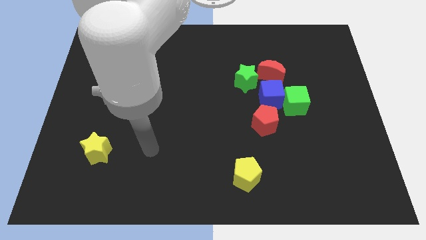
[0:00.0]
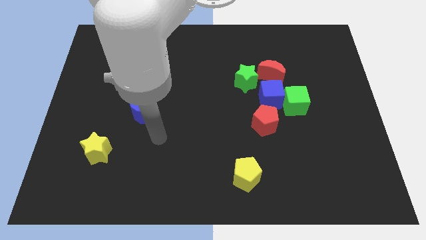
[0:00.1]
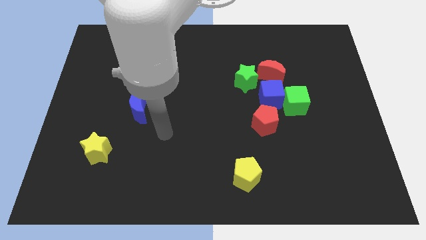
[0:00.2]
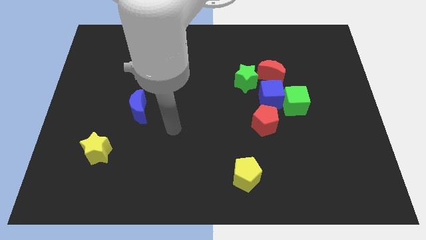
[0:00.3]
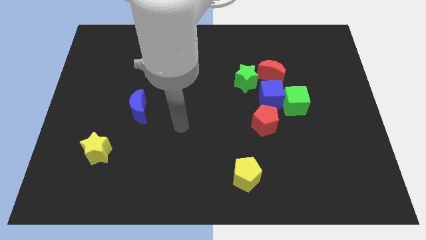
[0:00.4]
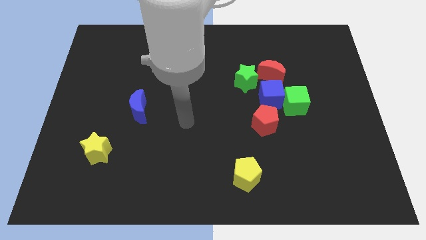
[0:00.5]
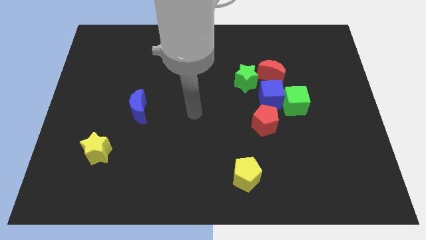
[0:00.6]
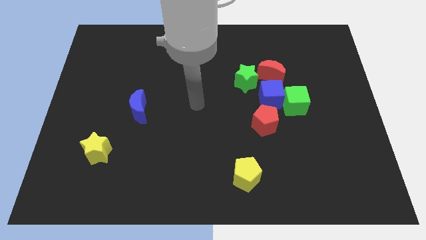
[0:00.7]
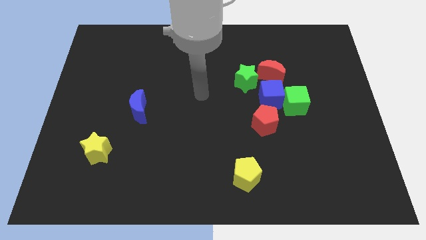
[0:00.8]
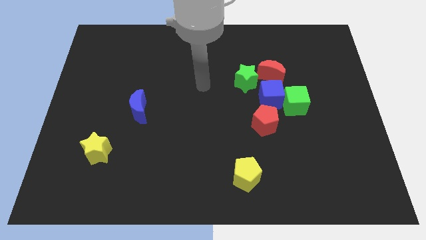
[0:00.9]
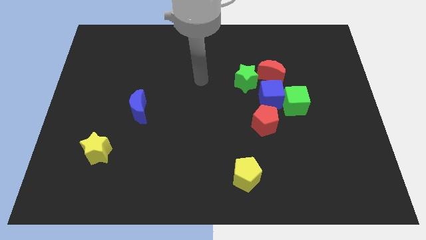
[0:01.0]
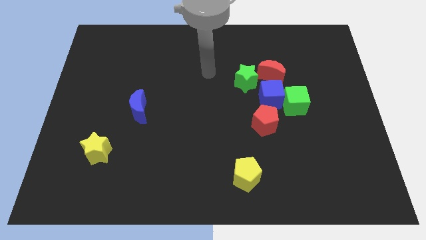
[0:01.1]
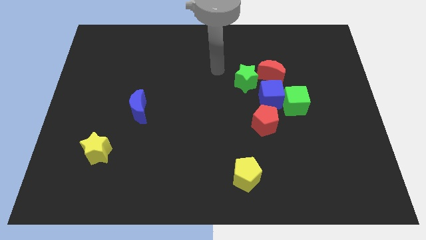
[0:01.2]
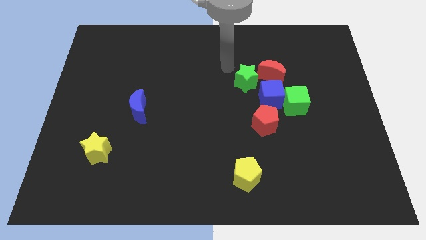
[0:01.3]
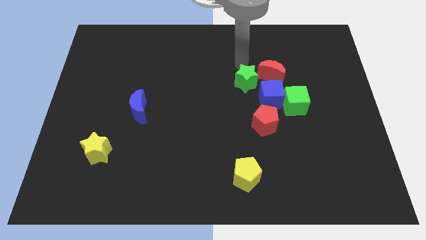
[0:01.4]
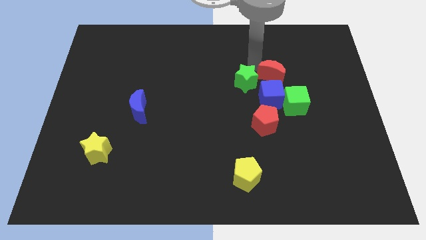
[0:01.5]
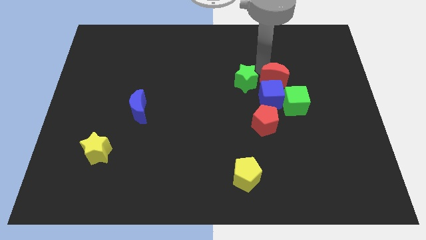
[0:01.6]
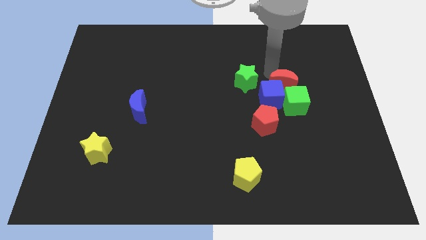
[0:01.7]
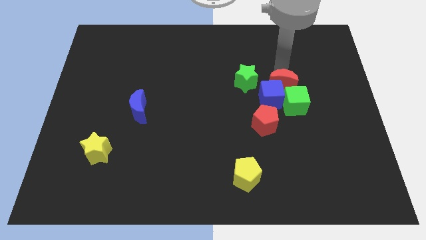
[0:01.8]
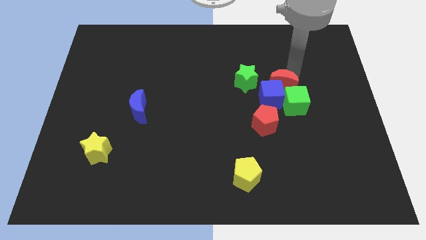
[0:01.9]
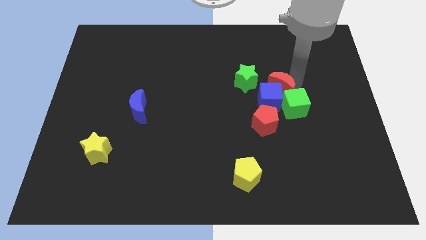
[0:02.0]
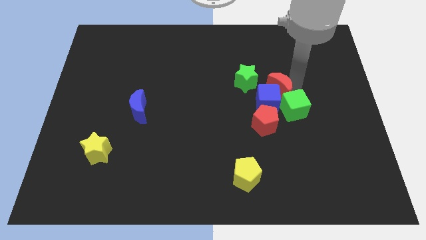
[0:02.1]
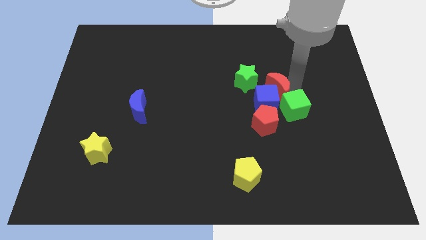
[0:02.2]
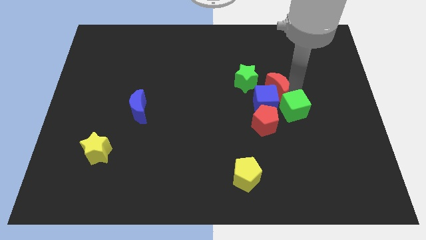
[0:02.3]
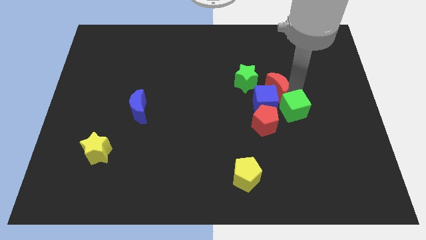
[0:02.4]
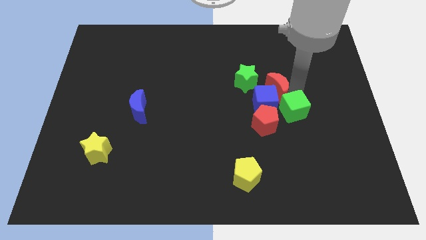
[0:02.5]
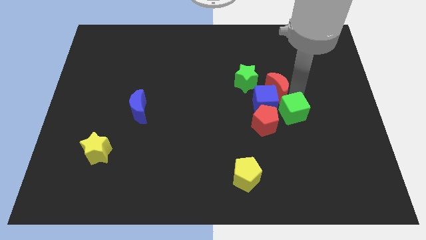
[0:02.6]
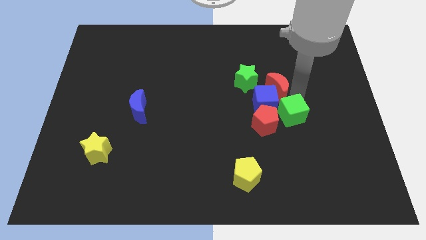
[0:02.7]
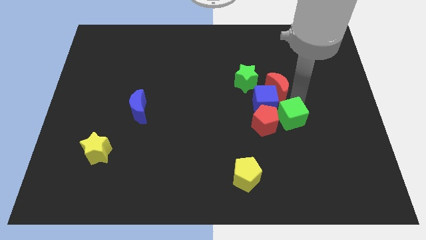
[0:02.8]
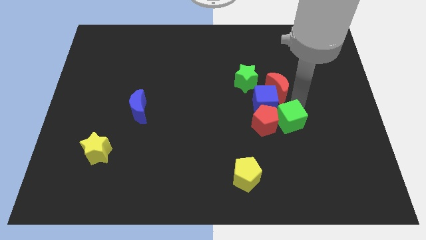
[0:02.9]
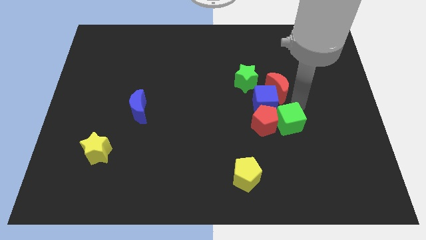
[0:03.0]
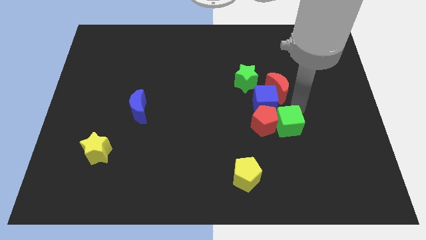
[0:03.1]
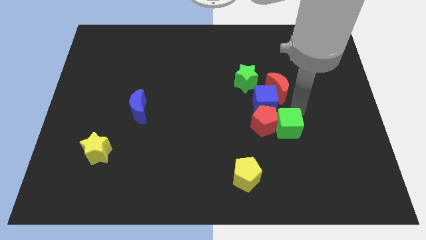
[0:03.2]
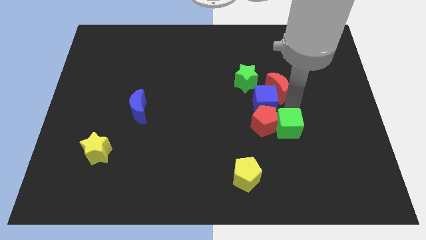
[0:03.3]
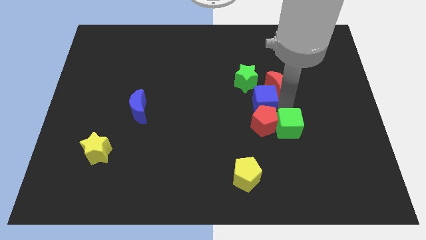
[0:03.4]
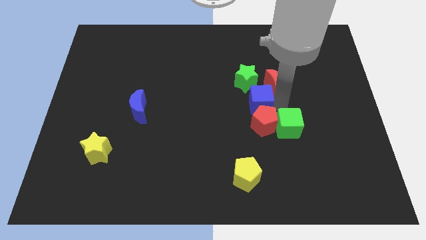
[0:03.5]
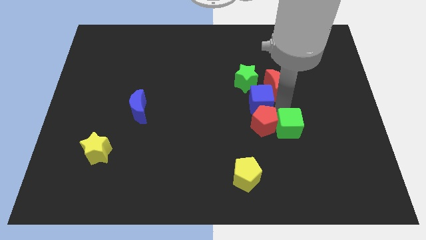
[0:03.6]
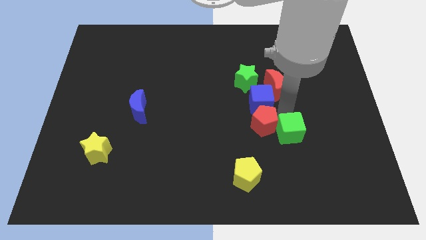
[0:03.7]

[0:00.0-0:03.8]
slightly slide the green cube downwards

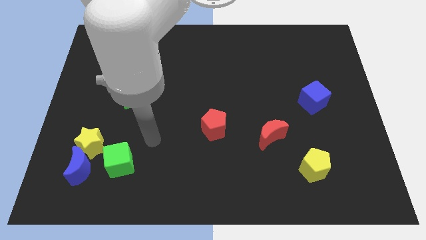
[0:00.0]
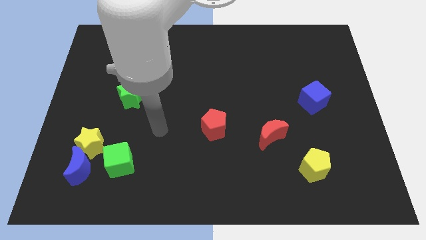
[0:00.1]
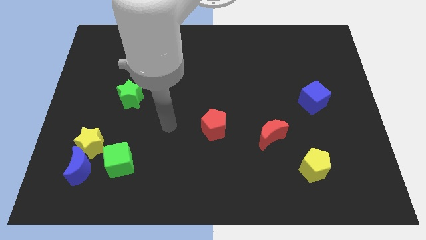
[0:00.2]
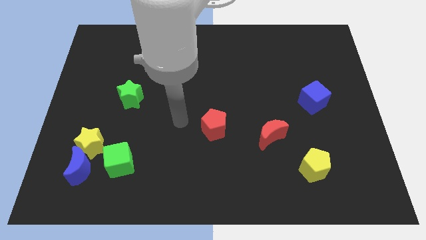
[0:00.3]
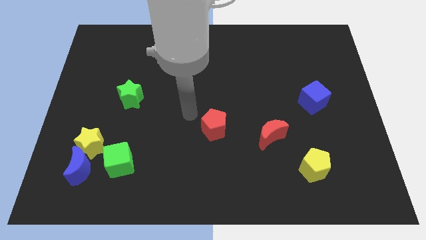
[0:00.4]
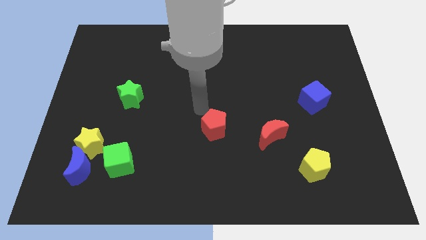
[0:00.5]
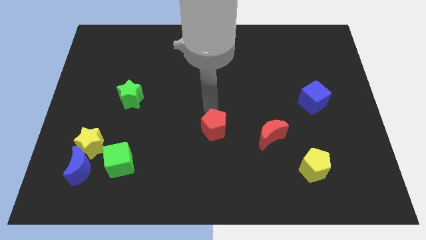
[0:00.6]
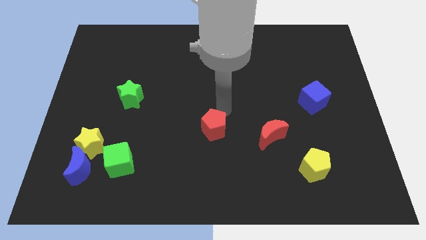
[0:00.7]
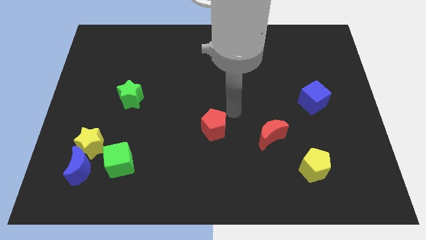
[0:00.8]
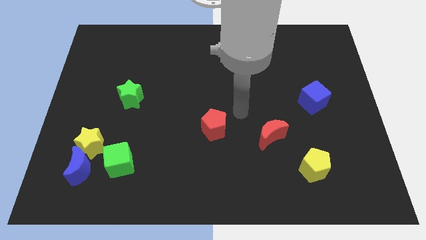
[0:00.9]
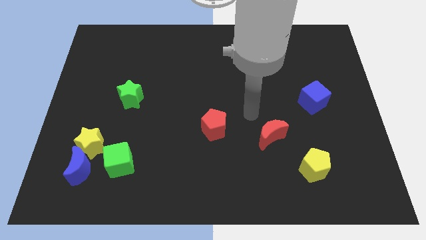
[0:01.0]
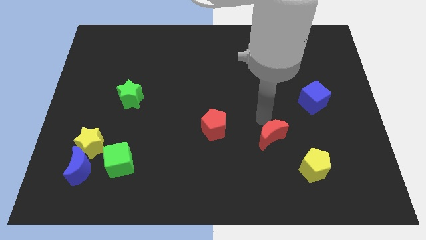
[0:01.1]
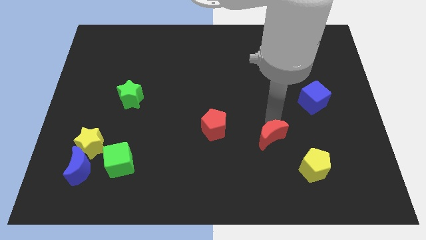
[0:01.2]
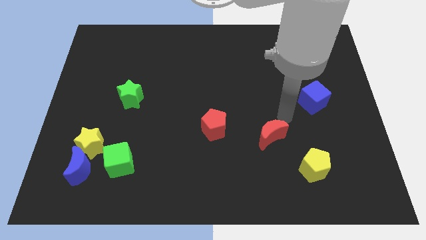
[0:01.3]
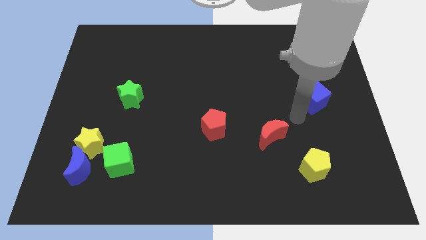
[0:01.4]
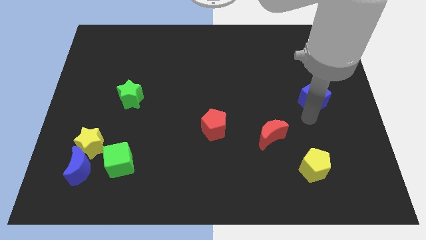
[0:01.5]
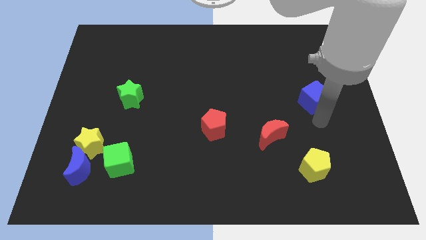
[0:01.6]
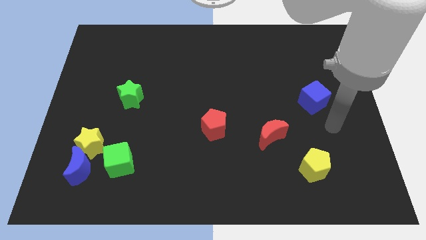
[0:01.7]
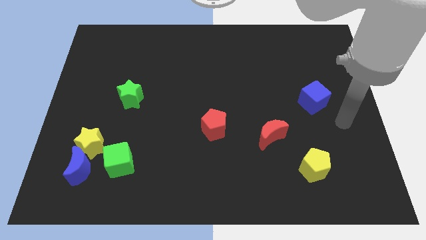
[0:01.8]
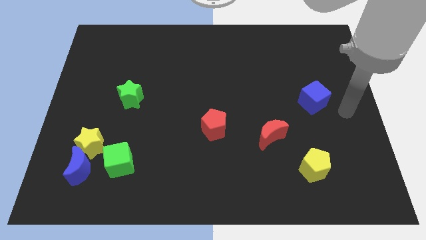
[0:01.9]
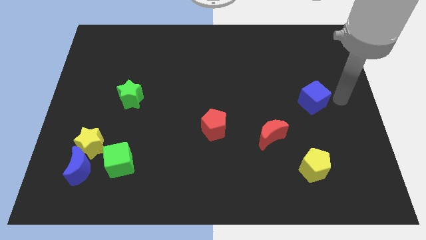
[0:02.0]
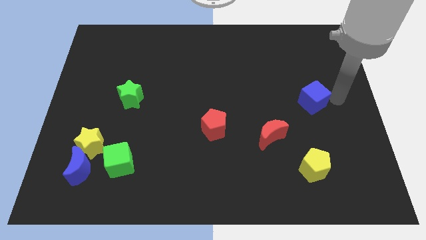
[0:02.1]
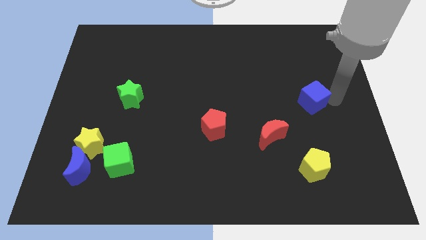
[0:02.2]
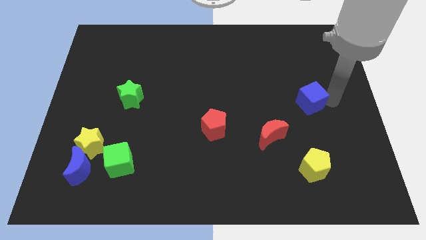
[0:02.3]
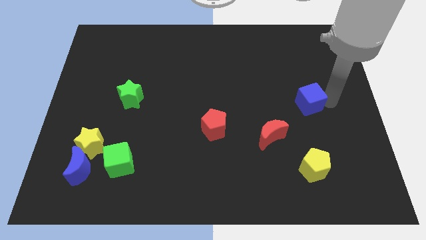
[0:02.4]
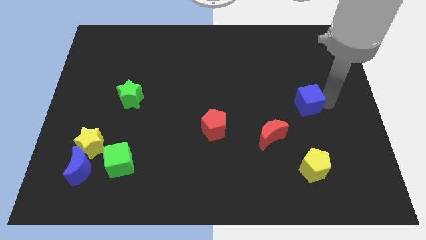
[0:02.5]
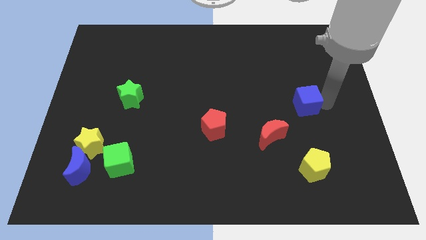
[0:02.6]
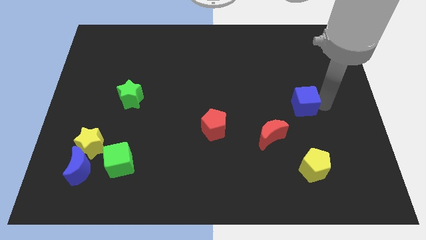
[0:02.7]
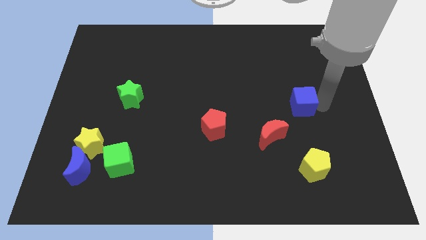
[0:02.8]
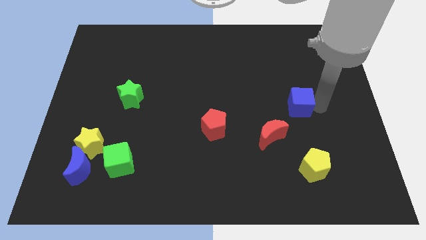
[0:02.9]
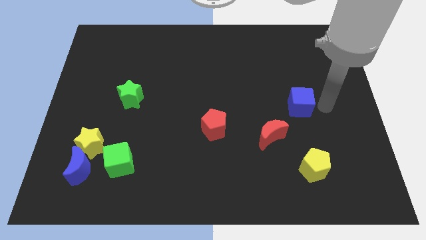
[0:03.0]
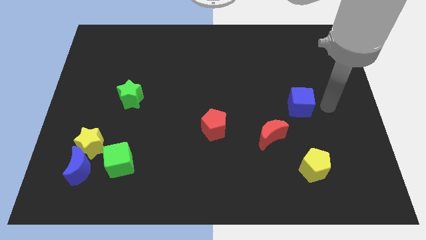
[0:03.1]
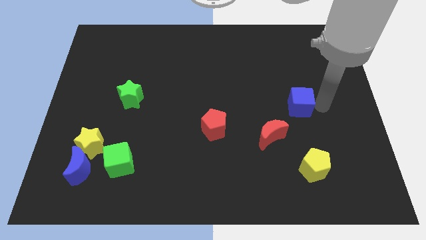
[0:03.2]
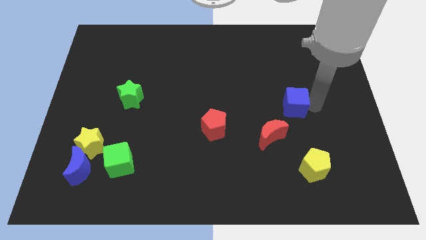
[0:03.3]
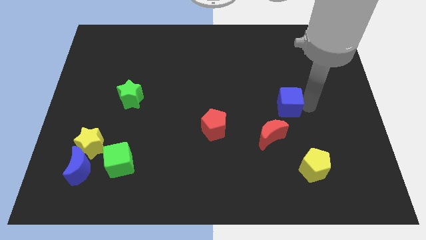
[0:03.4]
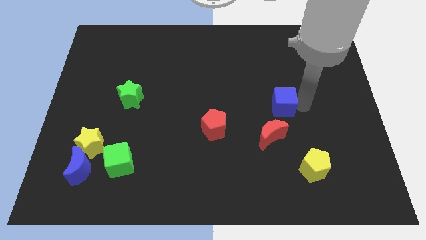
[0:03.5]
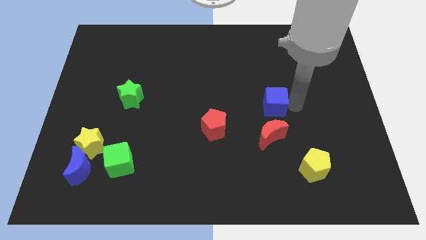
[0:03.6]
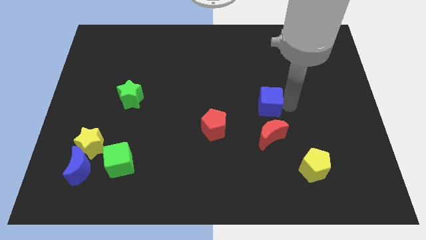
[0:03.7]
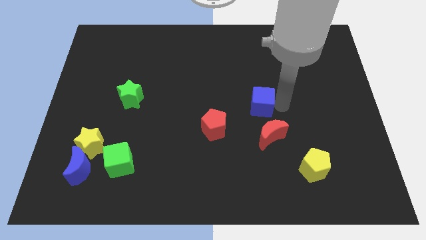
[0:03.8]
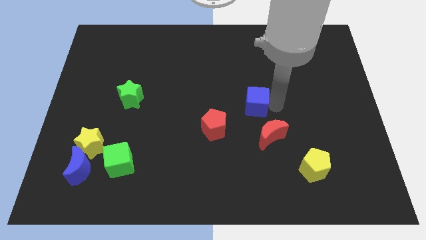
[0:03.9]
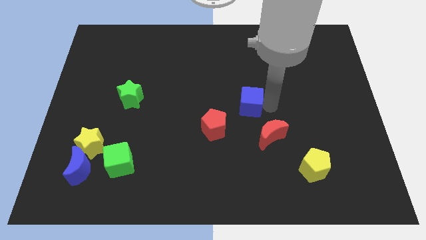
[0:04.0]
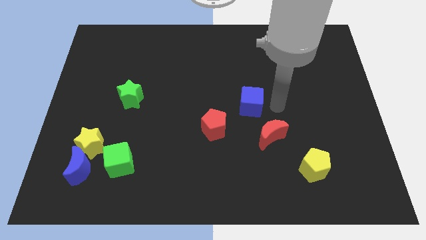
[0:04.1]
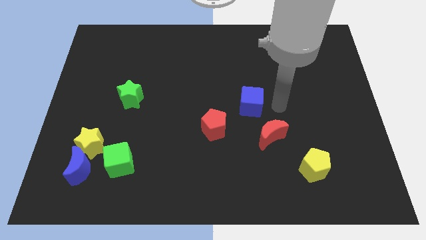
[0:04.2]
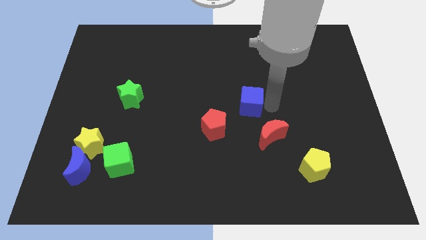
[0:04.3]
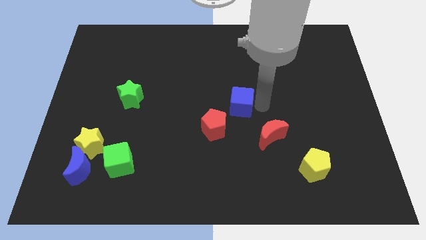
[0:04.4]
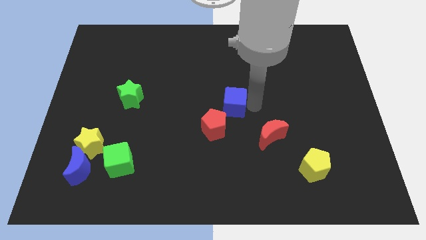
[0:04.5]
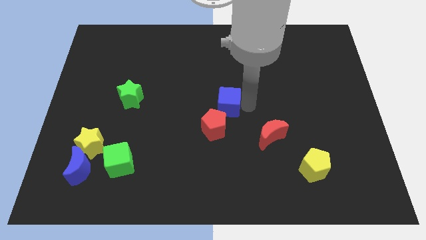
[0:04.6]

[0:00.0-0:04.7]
slide the blue cube left
